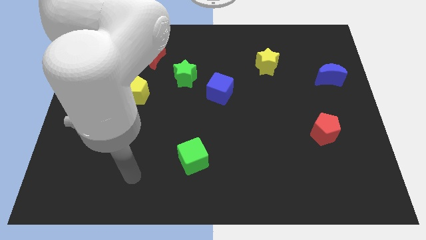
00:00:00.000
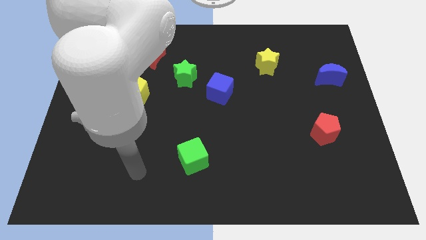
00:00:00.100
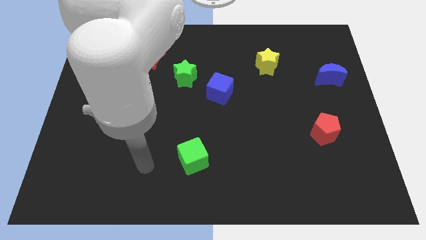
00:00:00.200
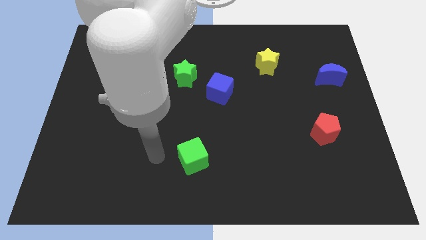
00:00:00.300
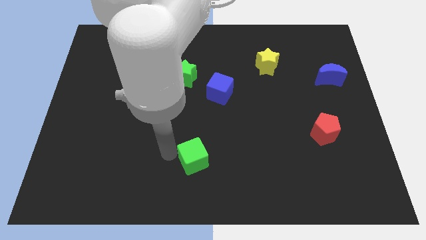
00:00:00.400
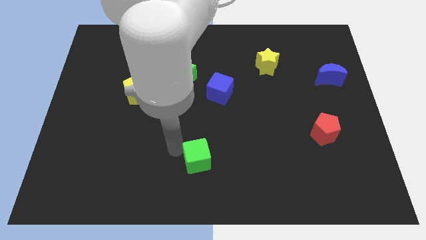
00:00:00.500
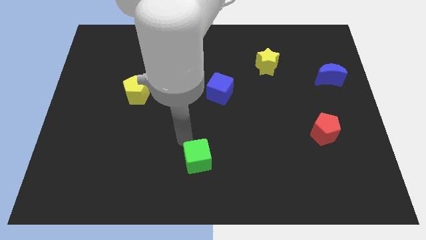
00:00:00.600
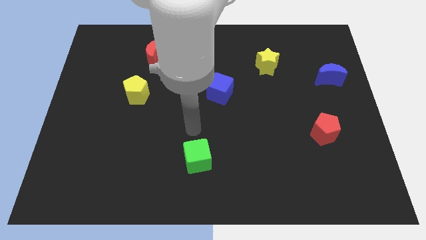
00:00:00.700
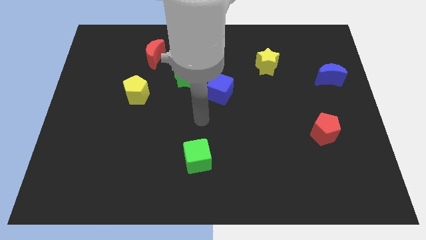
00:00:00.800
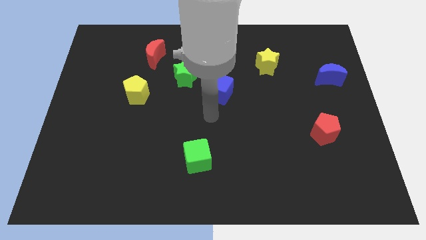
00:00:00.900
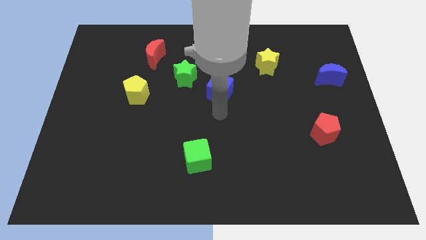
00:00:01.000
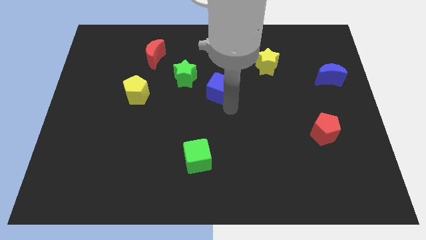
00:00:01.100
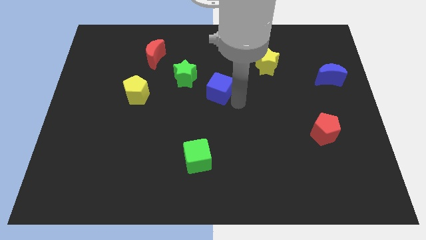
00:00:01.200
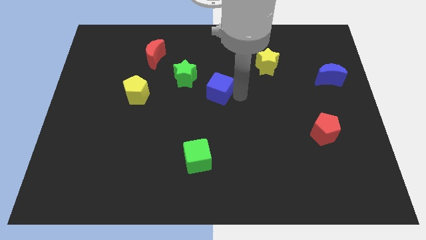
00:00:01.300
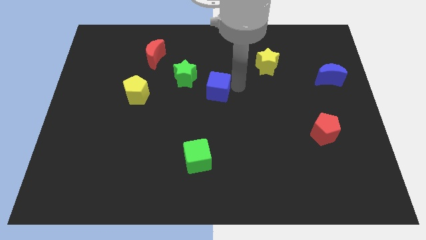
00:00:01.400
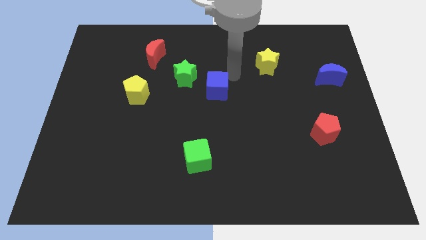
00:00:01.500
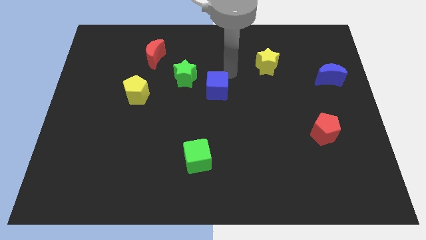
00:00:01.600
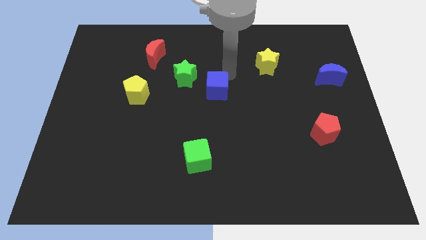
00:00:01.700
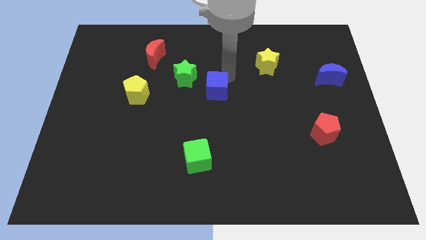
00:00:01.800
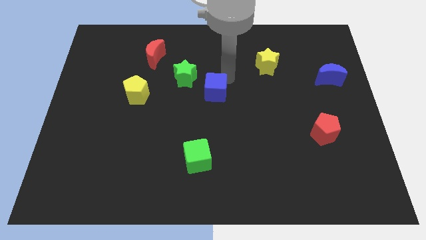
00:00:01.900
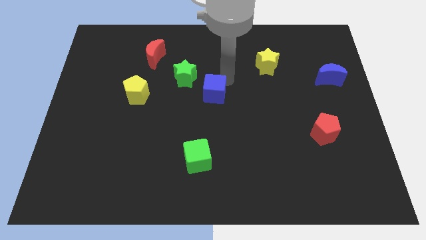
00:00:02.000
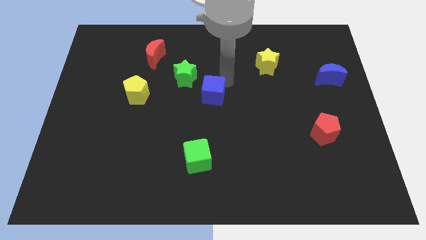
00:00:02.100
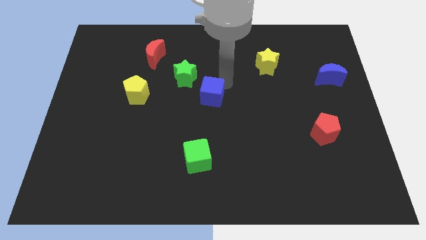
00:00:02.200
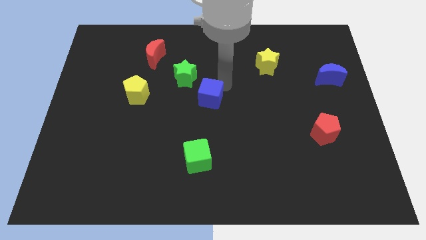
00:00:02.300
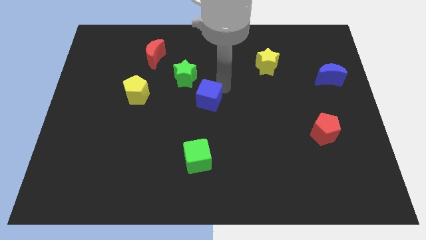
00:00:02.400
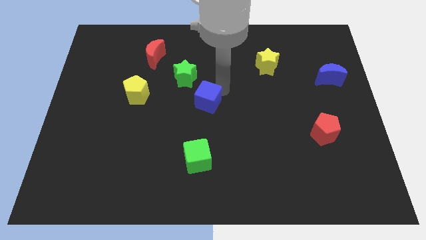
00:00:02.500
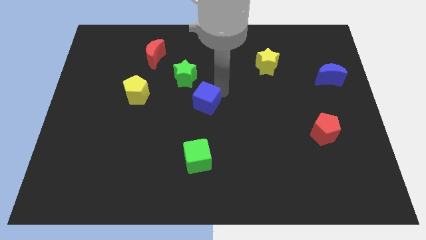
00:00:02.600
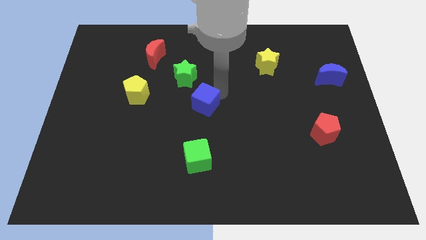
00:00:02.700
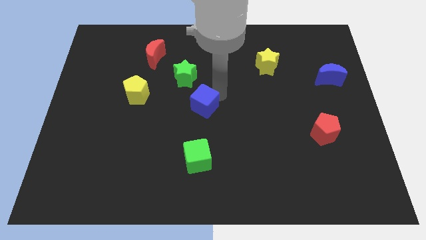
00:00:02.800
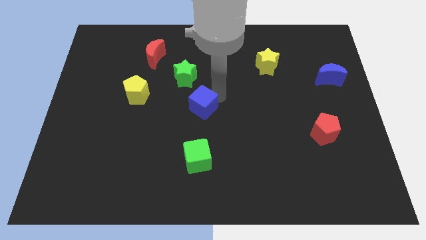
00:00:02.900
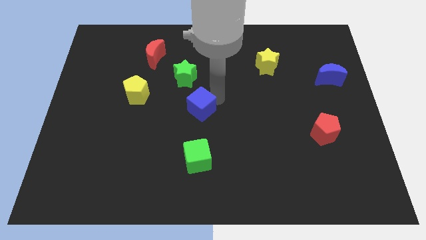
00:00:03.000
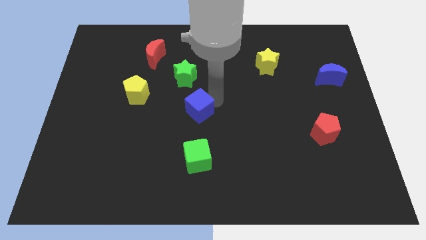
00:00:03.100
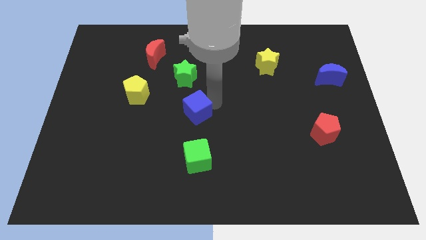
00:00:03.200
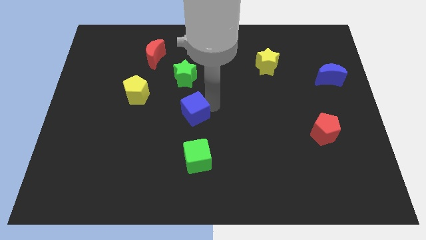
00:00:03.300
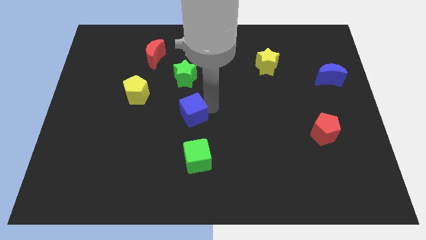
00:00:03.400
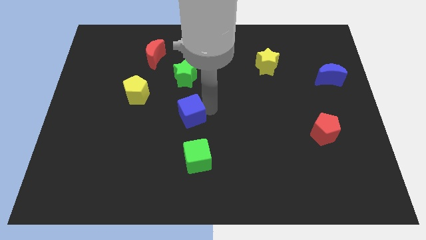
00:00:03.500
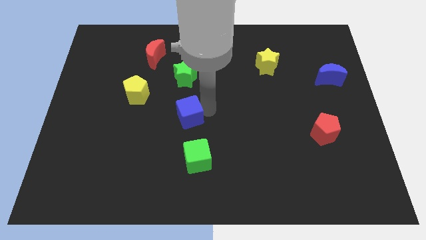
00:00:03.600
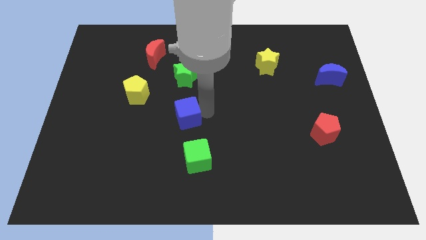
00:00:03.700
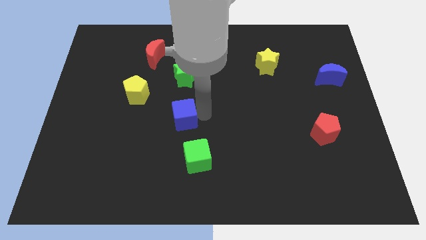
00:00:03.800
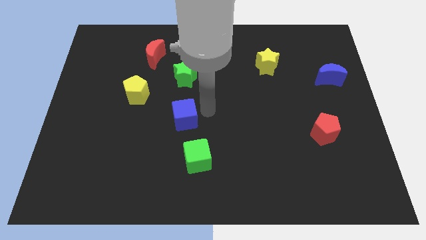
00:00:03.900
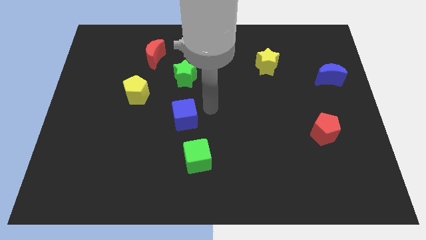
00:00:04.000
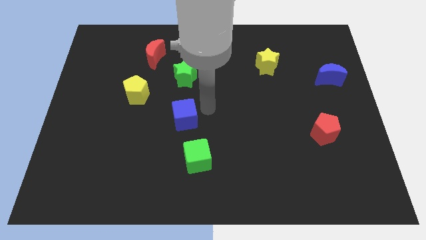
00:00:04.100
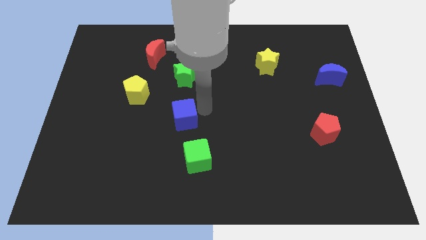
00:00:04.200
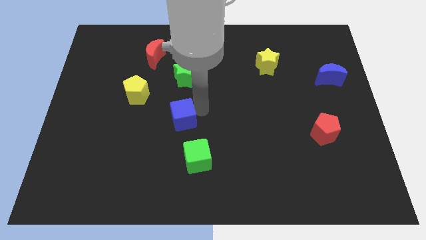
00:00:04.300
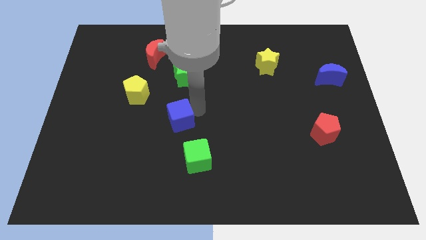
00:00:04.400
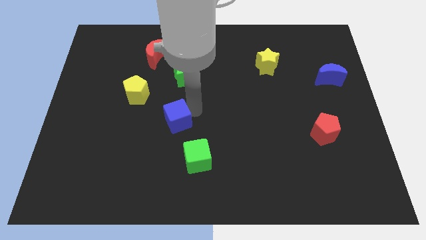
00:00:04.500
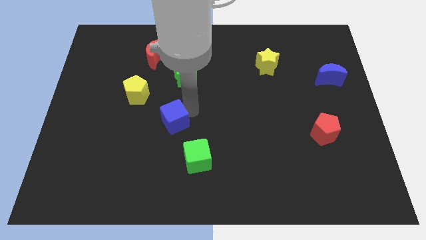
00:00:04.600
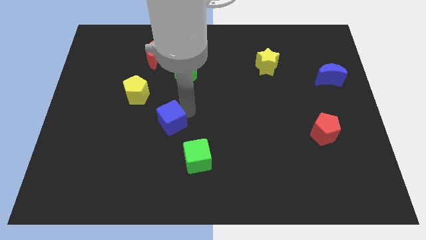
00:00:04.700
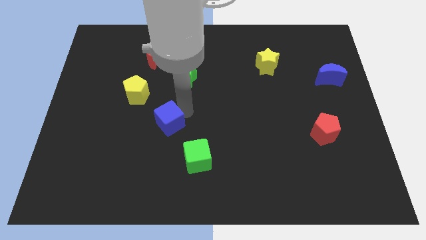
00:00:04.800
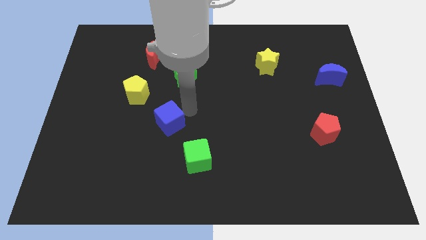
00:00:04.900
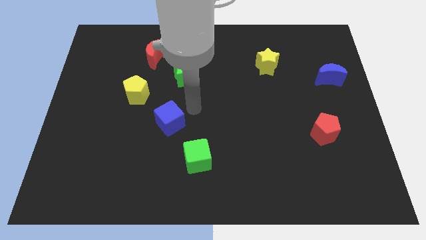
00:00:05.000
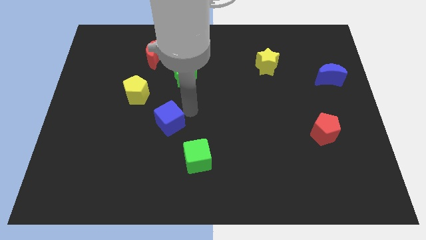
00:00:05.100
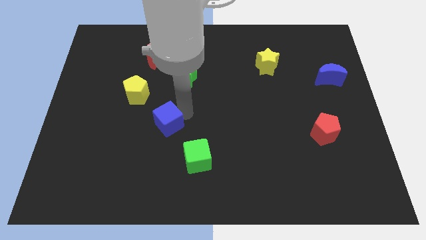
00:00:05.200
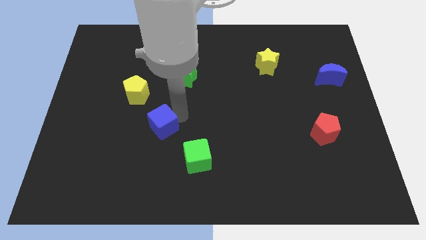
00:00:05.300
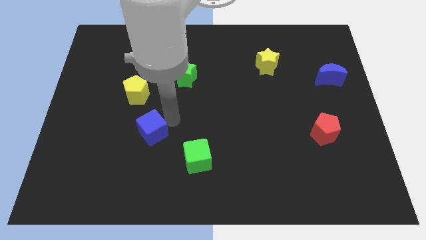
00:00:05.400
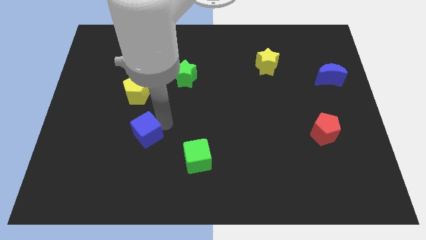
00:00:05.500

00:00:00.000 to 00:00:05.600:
push the blue cube down and to the left diagonally

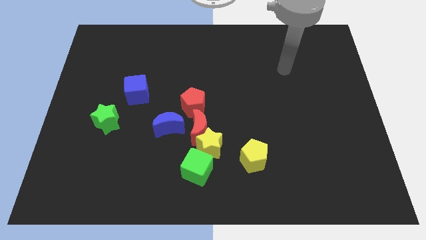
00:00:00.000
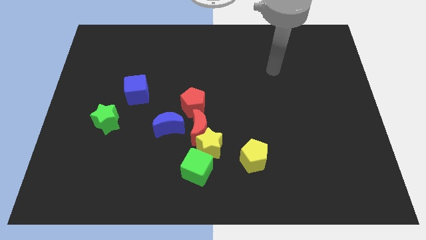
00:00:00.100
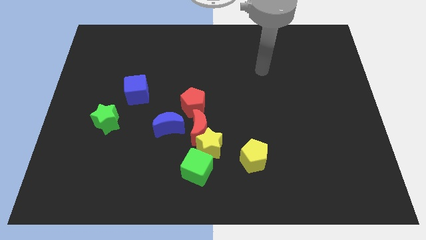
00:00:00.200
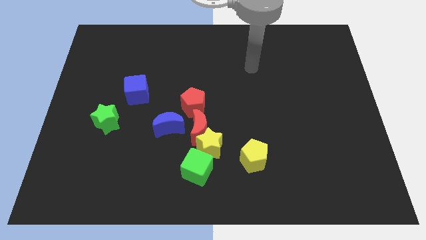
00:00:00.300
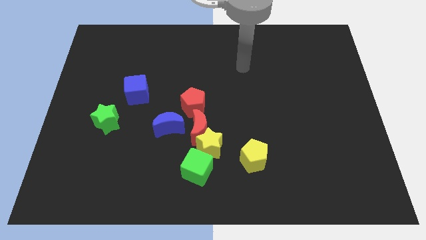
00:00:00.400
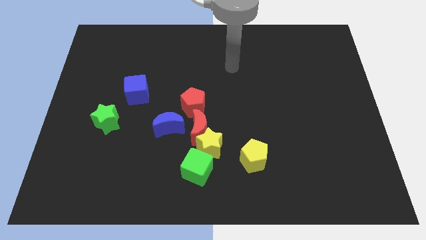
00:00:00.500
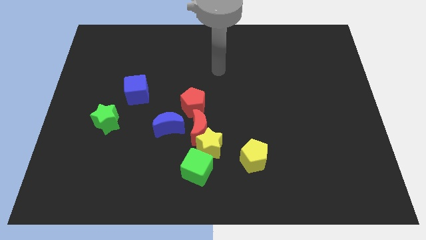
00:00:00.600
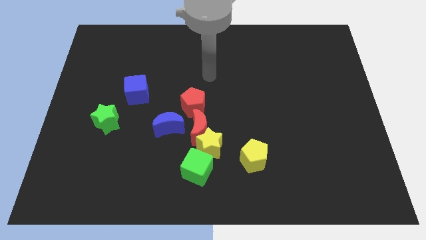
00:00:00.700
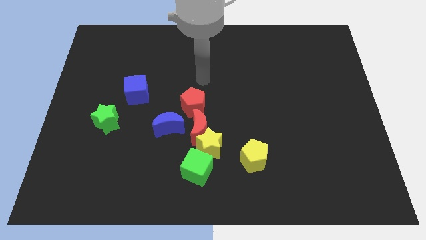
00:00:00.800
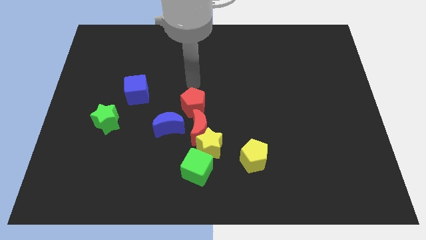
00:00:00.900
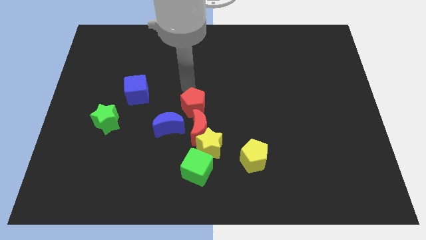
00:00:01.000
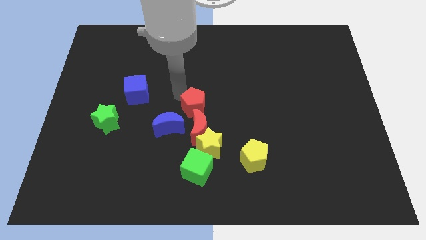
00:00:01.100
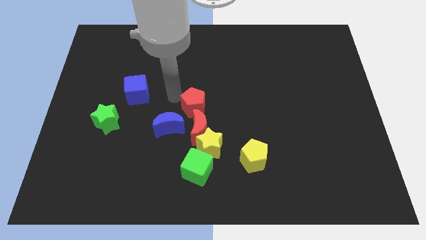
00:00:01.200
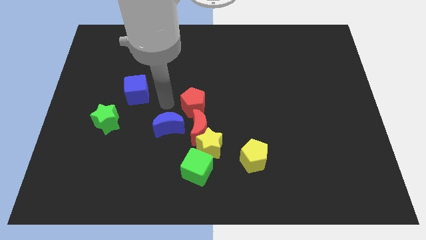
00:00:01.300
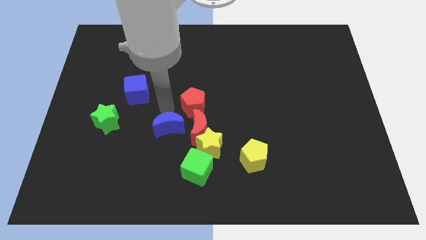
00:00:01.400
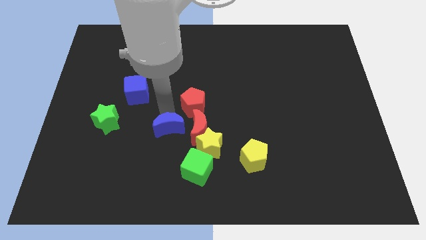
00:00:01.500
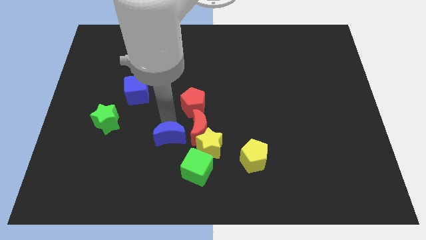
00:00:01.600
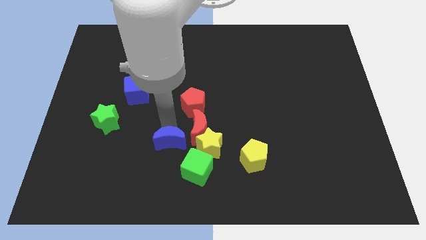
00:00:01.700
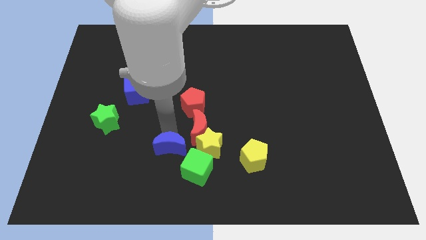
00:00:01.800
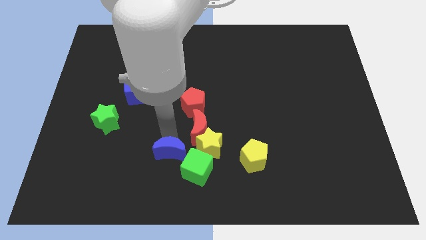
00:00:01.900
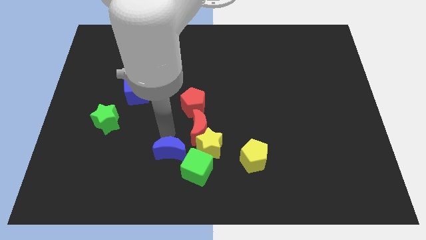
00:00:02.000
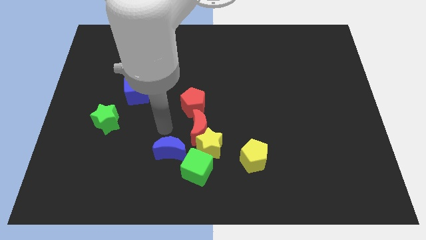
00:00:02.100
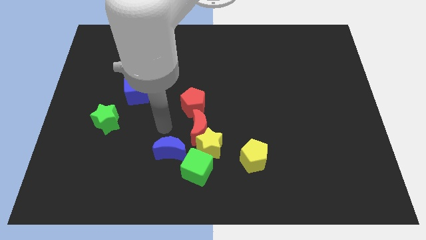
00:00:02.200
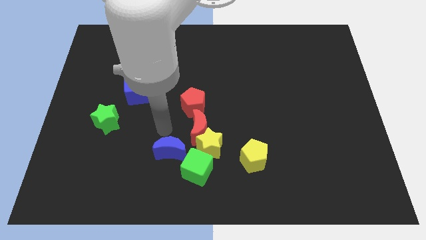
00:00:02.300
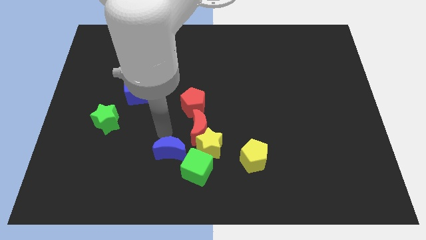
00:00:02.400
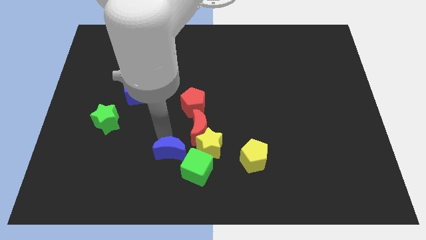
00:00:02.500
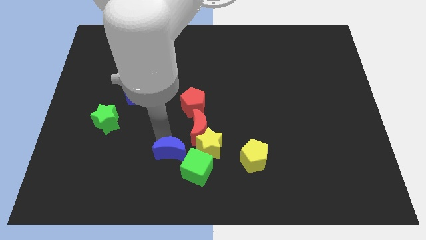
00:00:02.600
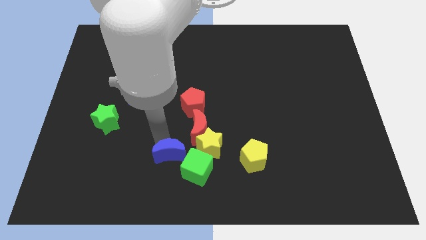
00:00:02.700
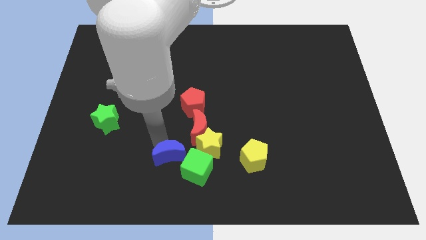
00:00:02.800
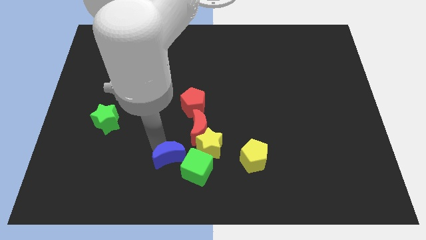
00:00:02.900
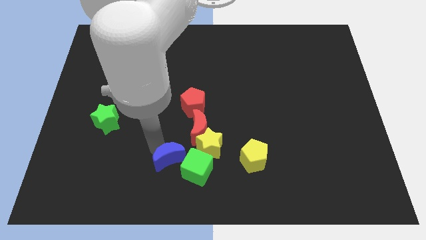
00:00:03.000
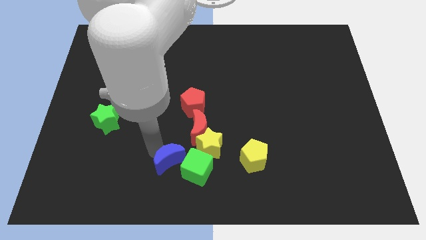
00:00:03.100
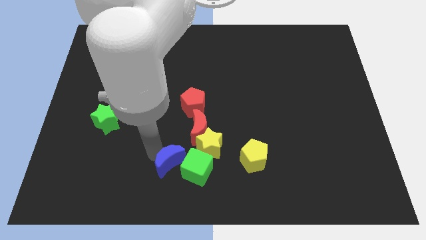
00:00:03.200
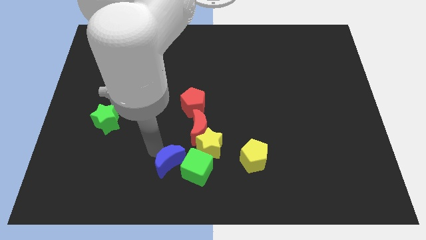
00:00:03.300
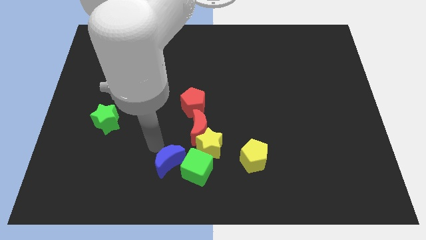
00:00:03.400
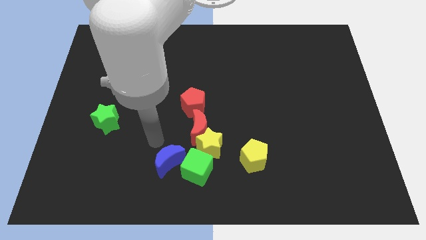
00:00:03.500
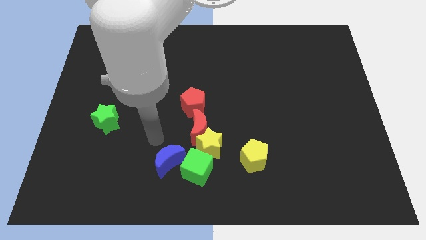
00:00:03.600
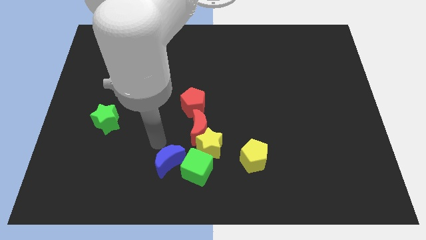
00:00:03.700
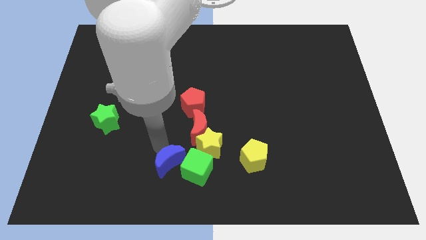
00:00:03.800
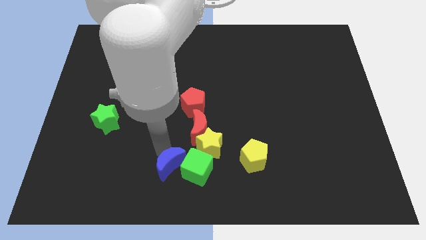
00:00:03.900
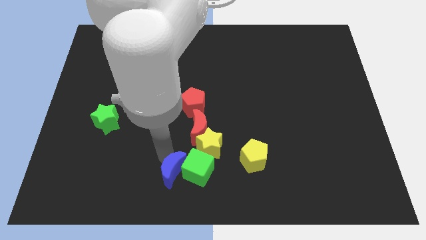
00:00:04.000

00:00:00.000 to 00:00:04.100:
slightly push the blue moon down and to the right
